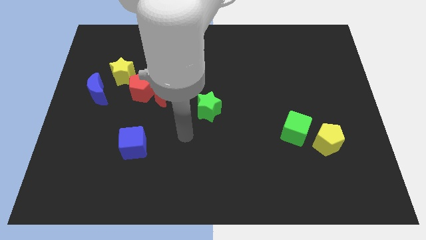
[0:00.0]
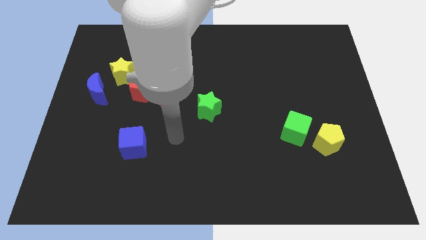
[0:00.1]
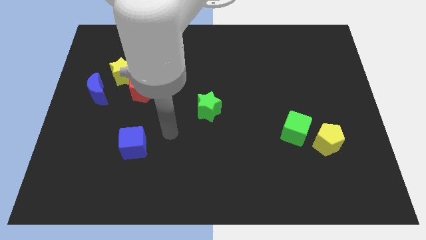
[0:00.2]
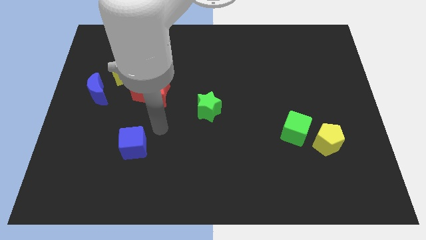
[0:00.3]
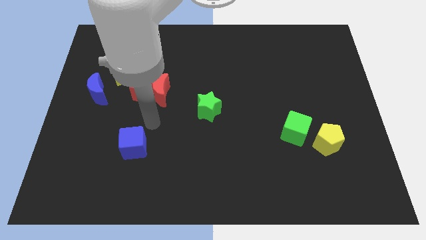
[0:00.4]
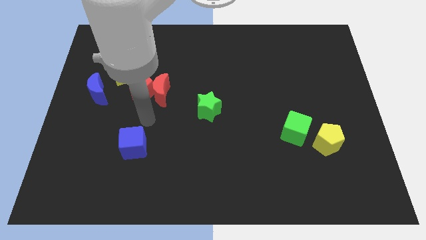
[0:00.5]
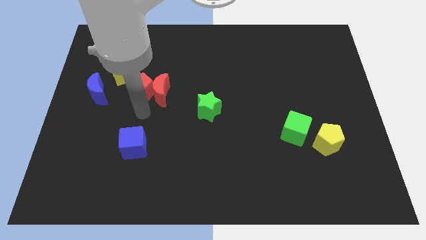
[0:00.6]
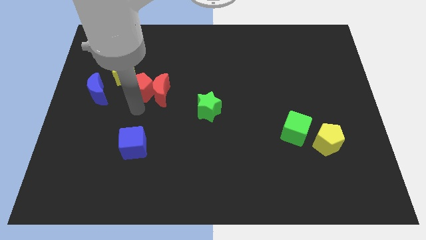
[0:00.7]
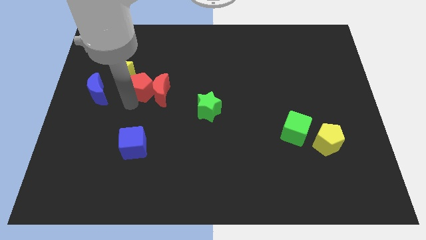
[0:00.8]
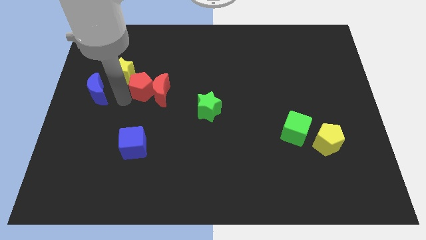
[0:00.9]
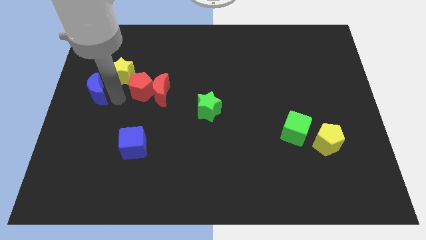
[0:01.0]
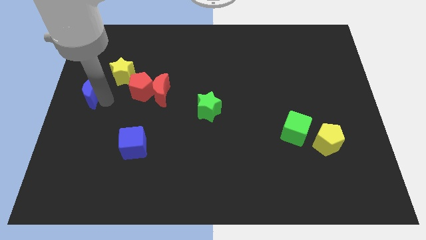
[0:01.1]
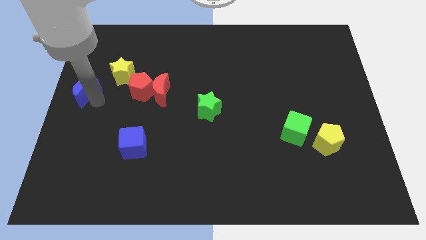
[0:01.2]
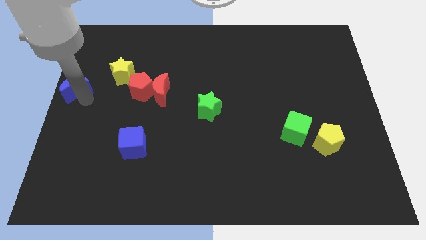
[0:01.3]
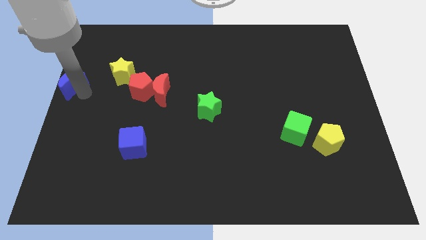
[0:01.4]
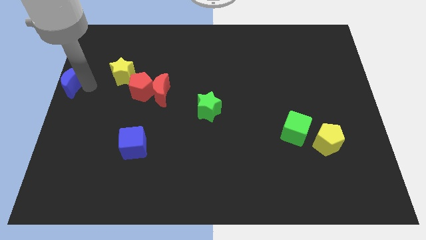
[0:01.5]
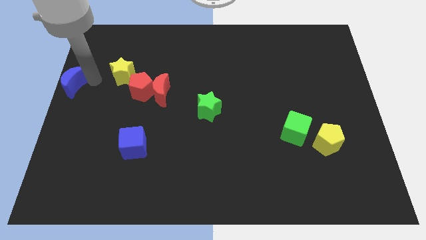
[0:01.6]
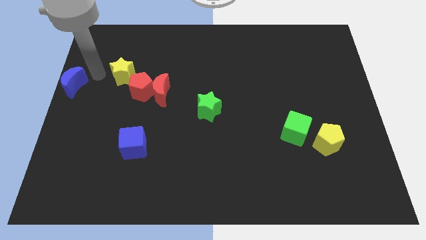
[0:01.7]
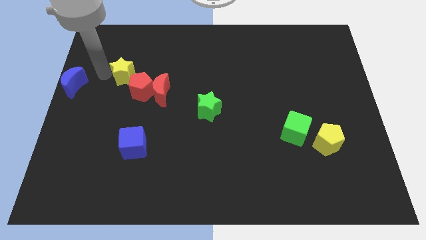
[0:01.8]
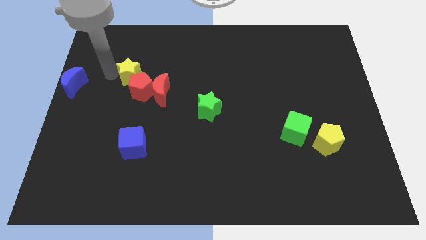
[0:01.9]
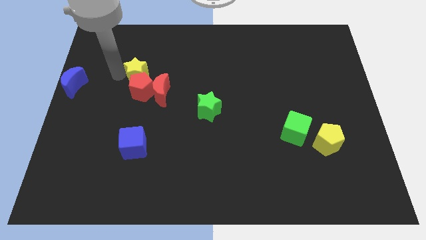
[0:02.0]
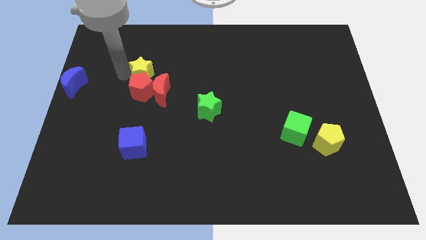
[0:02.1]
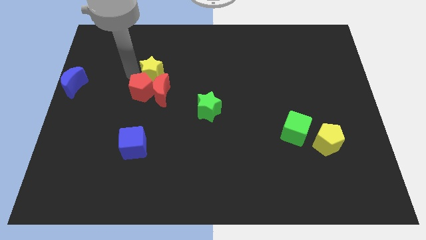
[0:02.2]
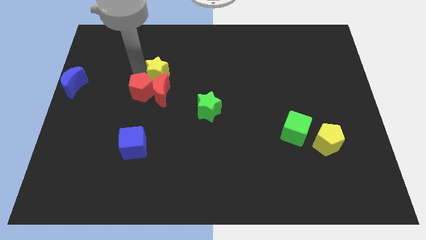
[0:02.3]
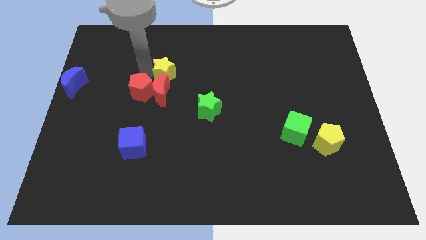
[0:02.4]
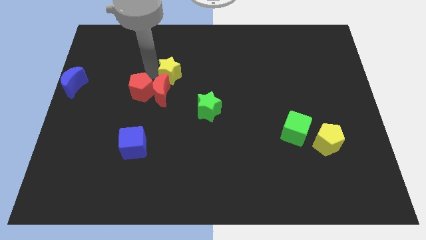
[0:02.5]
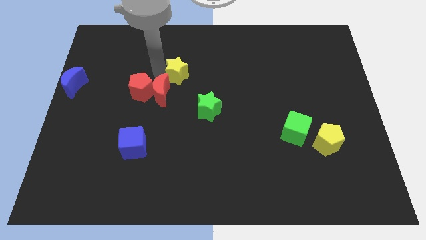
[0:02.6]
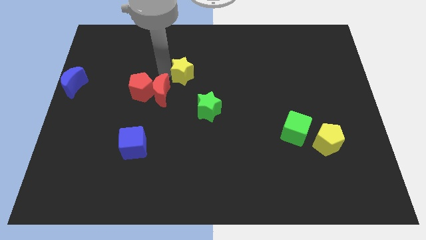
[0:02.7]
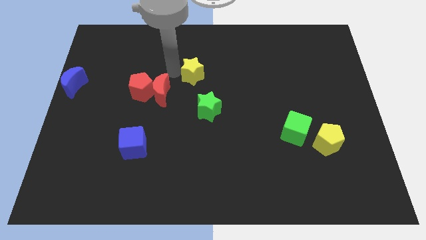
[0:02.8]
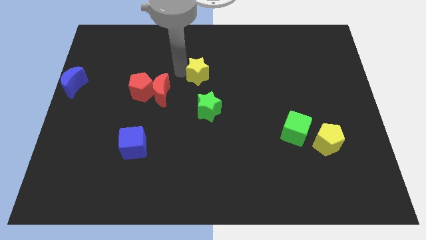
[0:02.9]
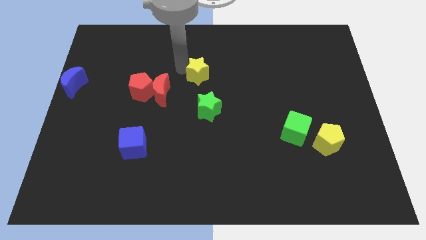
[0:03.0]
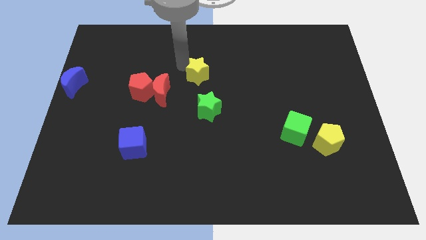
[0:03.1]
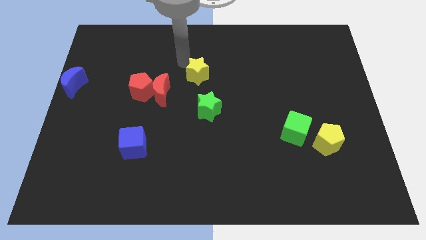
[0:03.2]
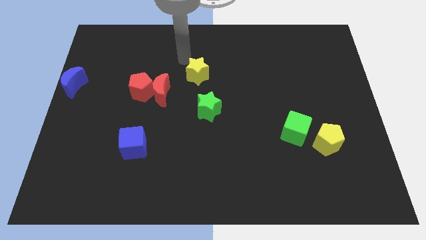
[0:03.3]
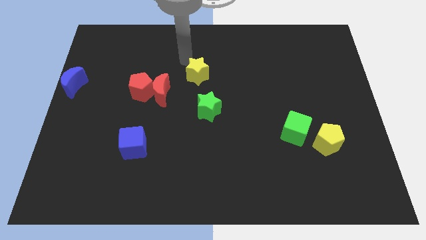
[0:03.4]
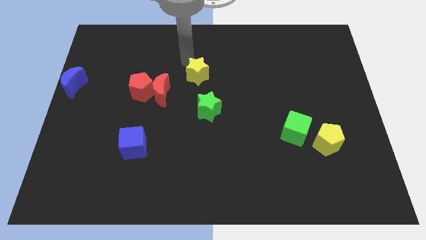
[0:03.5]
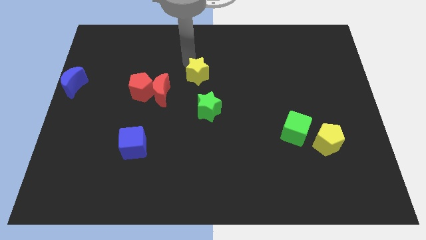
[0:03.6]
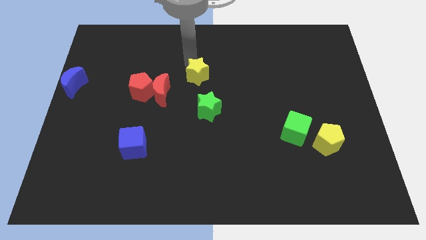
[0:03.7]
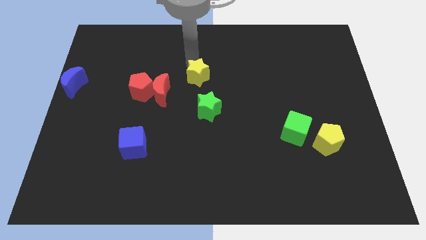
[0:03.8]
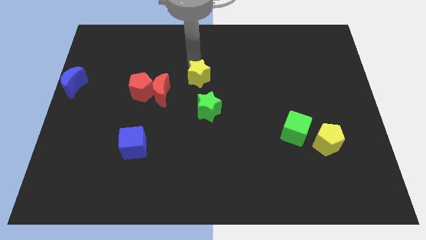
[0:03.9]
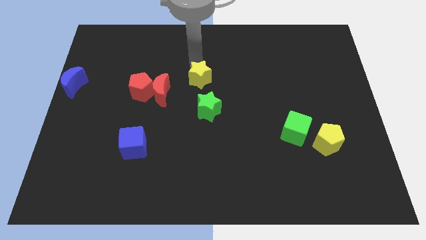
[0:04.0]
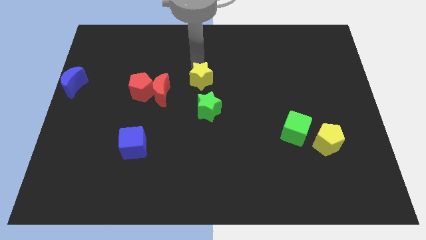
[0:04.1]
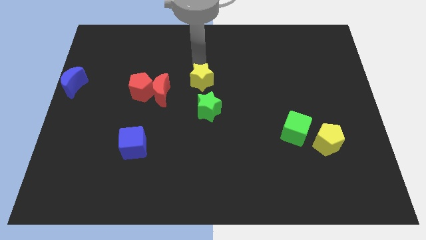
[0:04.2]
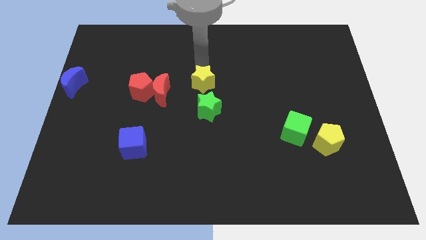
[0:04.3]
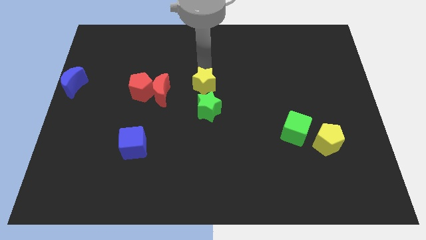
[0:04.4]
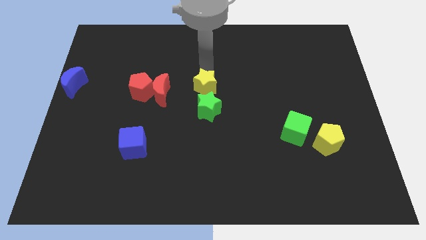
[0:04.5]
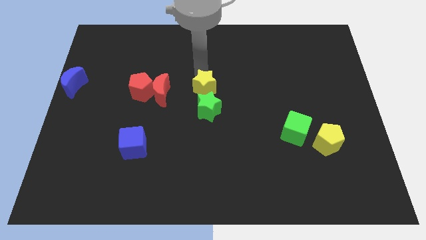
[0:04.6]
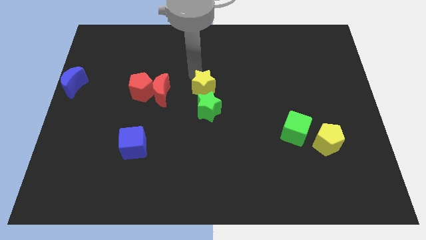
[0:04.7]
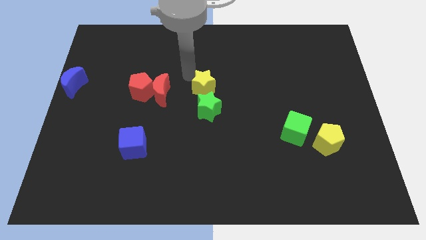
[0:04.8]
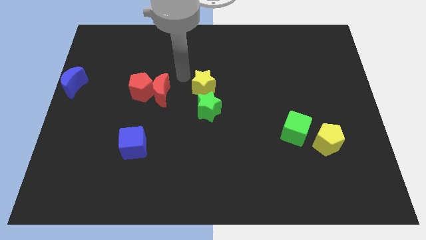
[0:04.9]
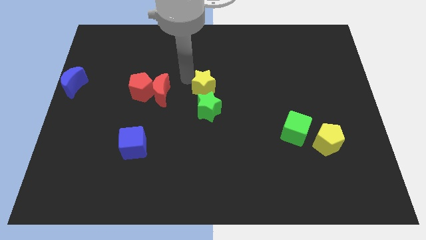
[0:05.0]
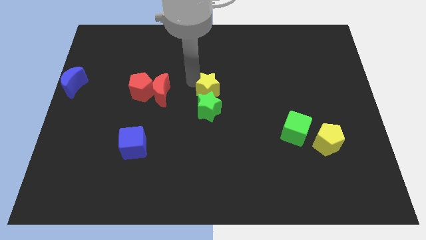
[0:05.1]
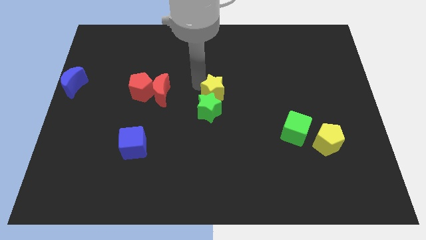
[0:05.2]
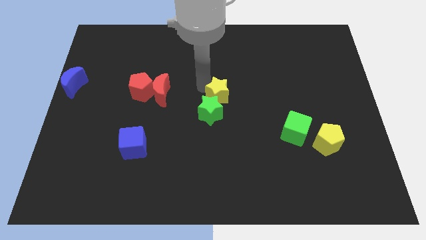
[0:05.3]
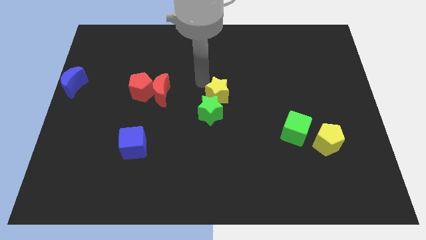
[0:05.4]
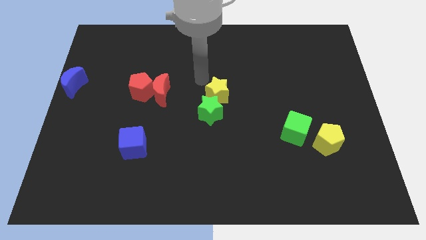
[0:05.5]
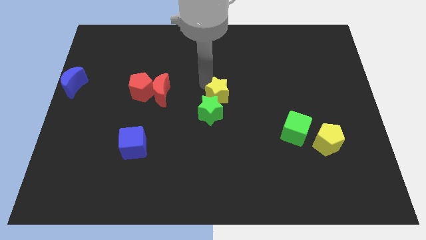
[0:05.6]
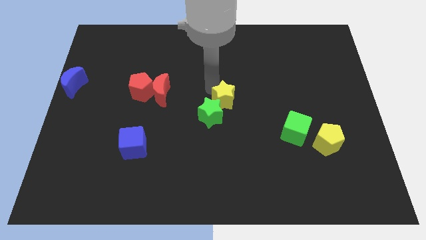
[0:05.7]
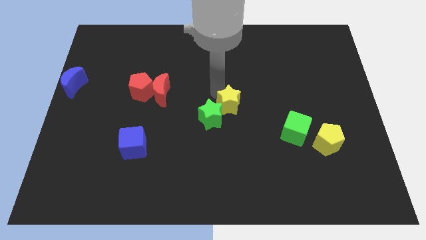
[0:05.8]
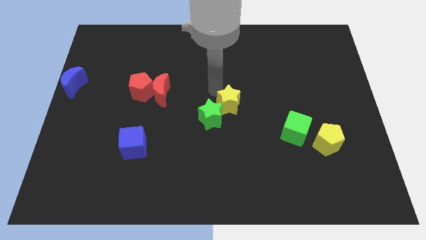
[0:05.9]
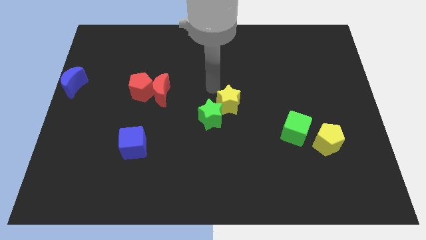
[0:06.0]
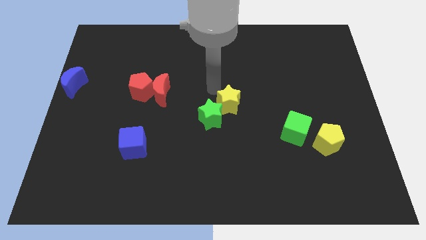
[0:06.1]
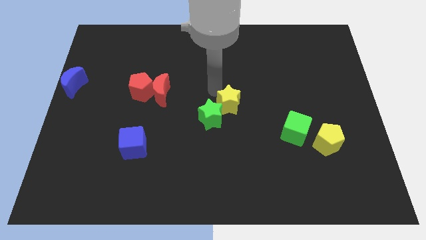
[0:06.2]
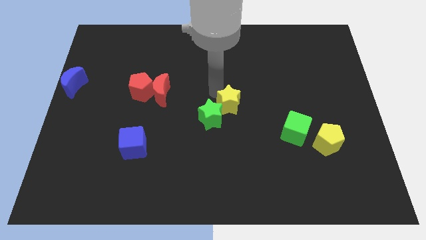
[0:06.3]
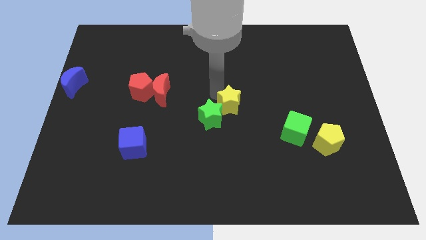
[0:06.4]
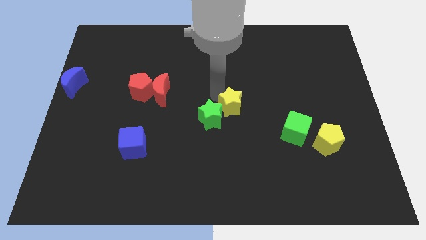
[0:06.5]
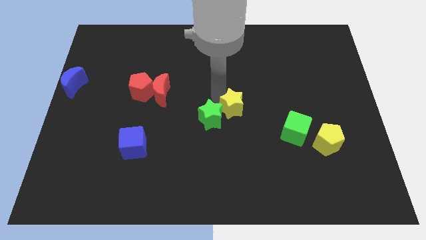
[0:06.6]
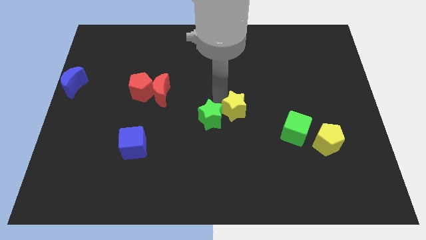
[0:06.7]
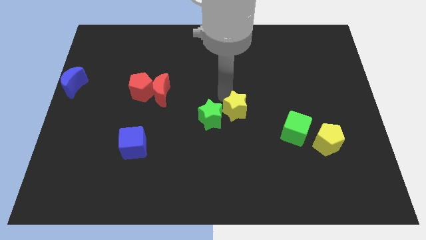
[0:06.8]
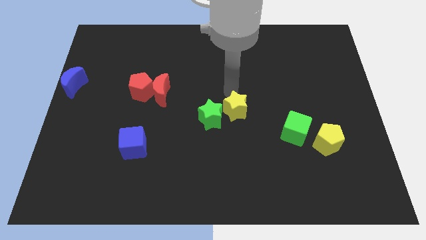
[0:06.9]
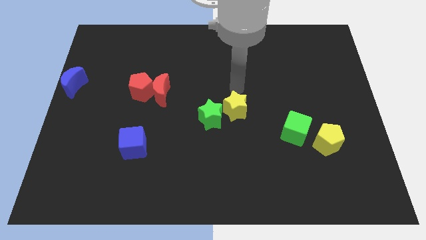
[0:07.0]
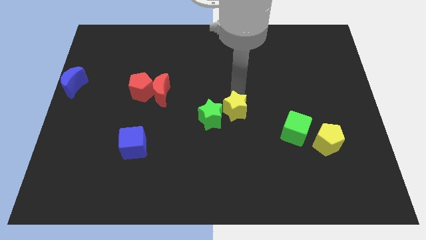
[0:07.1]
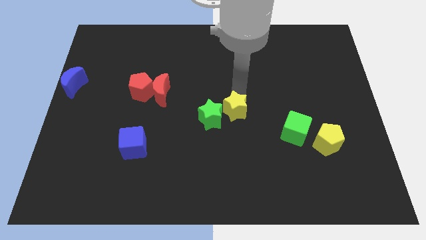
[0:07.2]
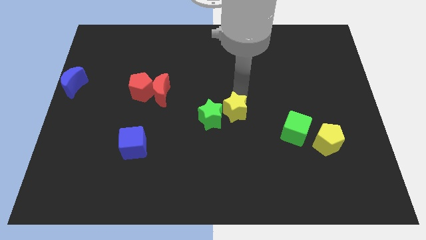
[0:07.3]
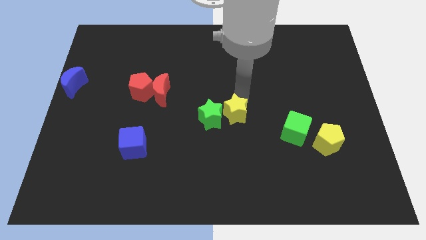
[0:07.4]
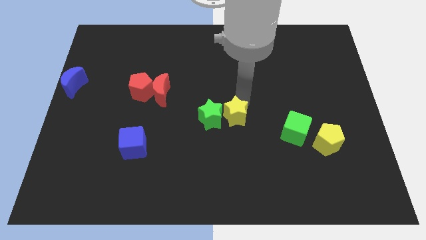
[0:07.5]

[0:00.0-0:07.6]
push the yellow star to the bottom right side of the green star
